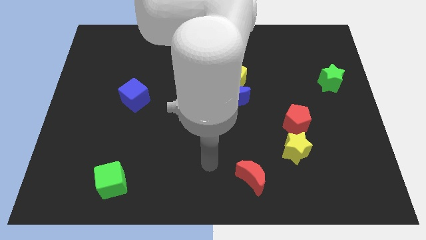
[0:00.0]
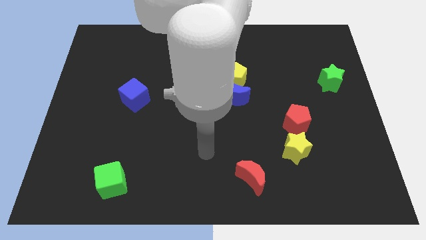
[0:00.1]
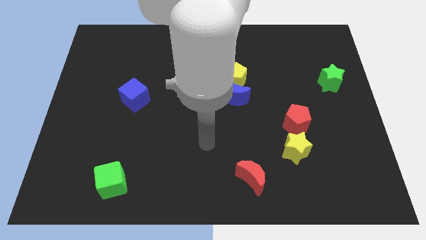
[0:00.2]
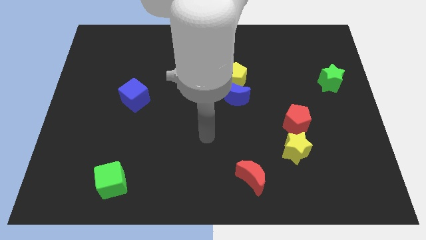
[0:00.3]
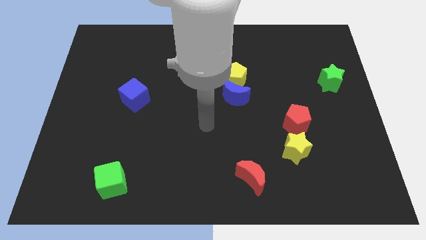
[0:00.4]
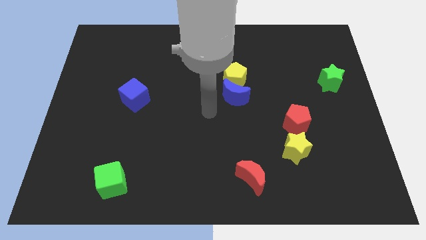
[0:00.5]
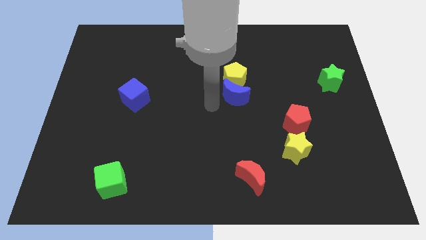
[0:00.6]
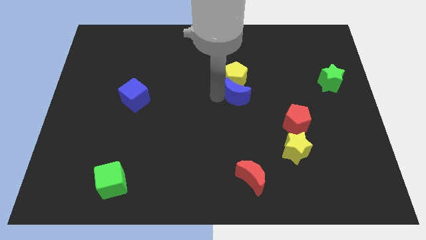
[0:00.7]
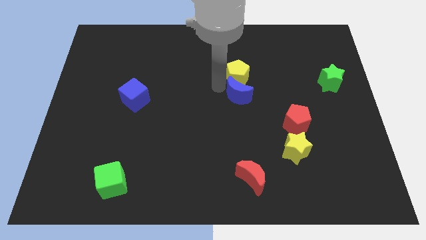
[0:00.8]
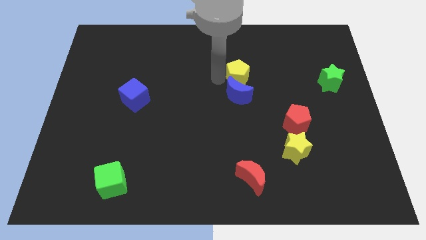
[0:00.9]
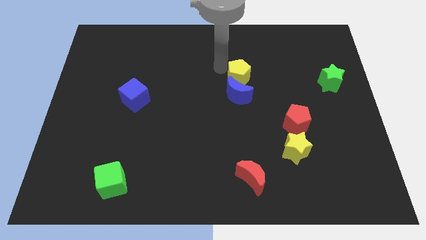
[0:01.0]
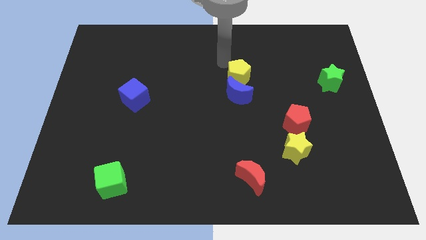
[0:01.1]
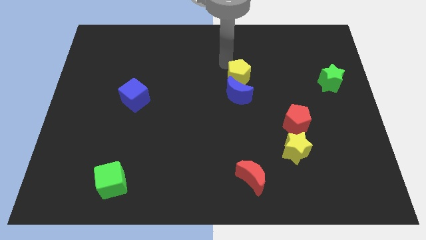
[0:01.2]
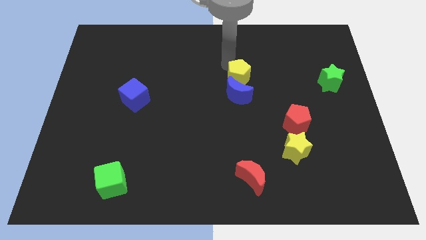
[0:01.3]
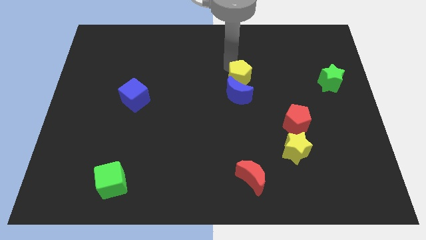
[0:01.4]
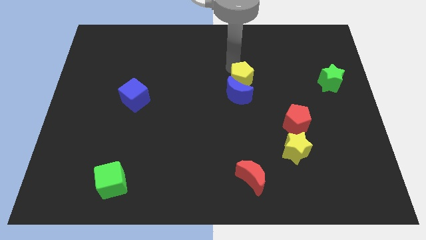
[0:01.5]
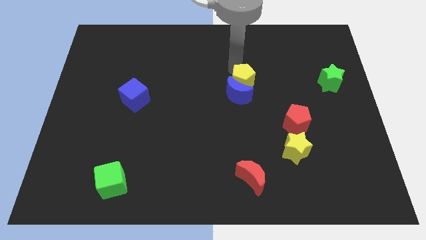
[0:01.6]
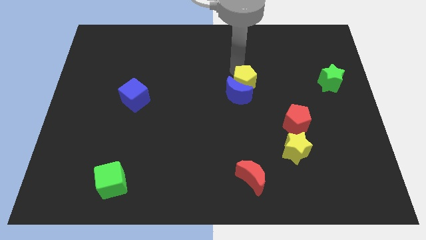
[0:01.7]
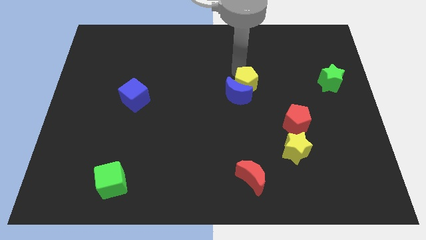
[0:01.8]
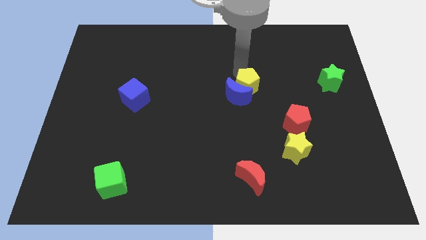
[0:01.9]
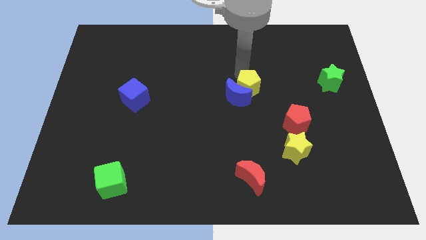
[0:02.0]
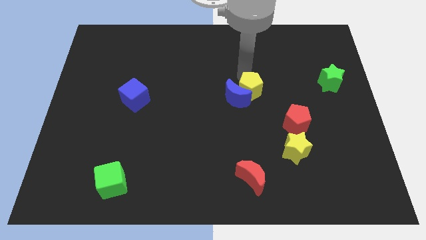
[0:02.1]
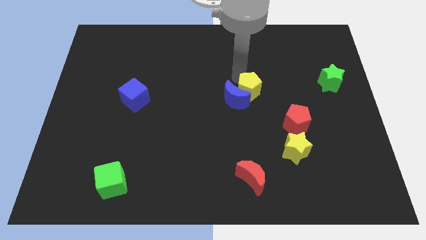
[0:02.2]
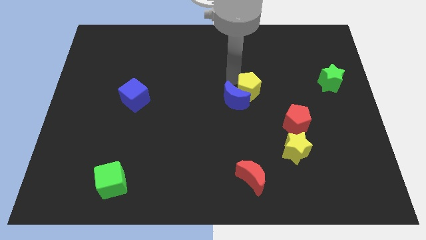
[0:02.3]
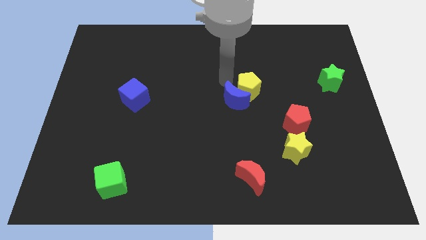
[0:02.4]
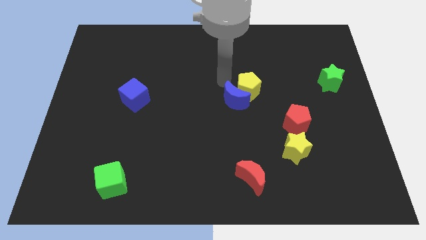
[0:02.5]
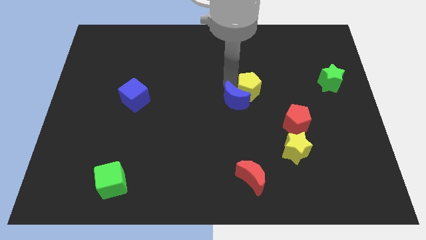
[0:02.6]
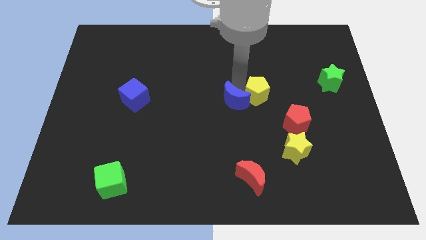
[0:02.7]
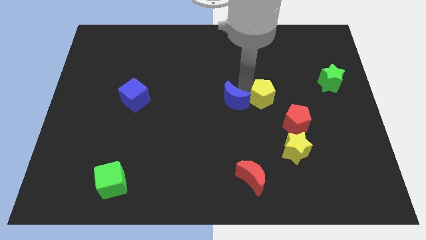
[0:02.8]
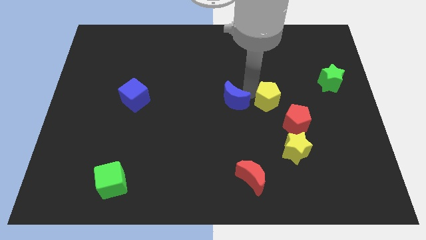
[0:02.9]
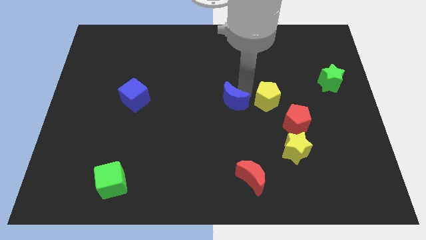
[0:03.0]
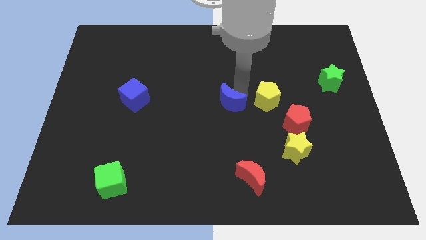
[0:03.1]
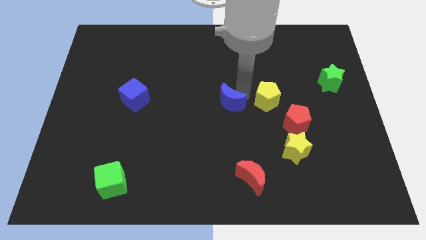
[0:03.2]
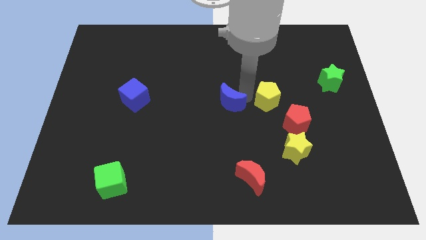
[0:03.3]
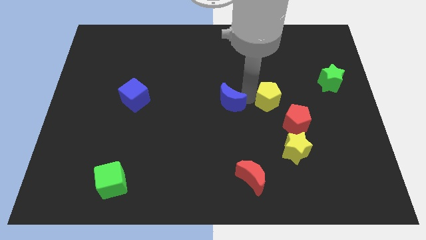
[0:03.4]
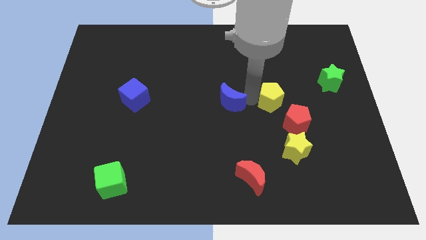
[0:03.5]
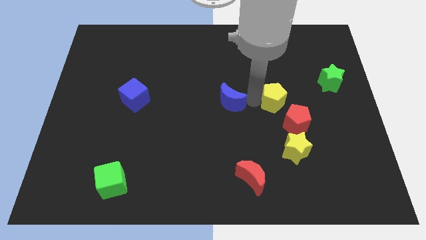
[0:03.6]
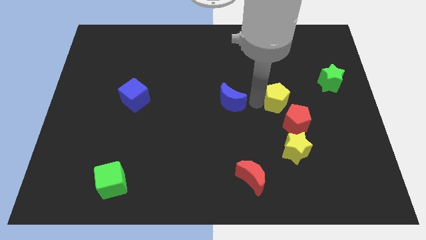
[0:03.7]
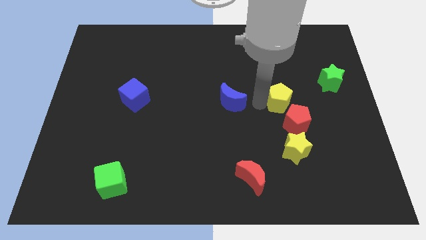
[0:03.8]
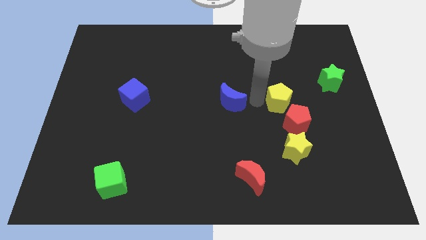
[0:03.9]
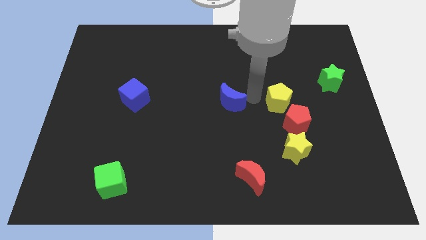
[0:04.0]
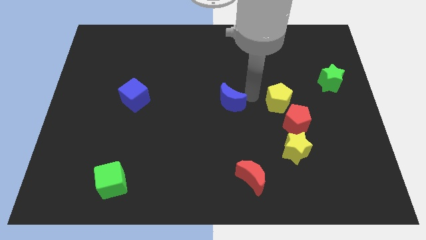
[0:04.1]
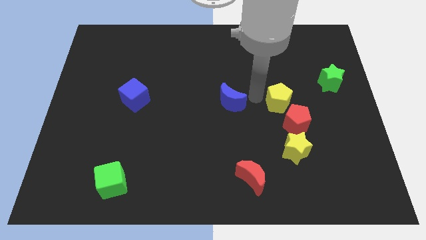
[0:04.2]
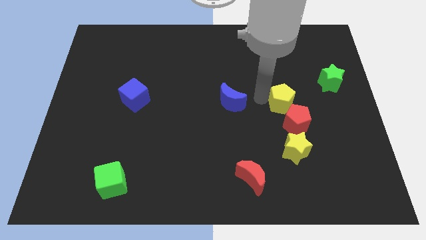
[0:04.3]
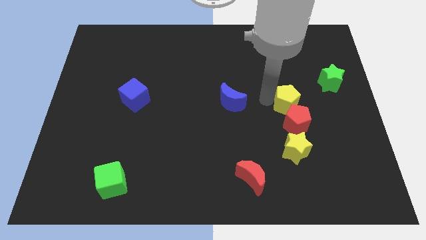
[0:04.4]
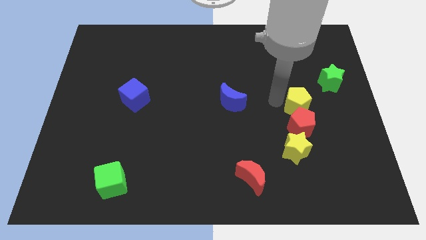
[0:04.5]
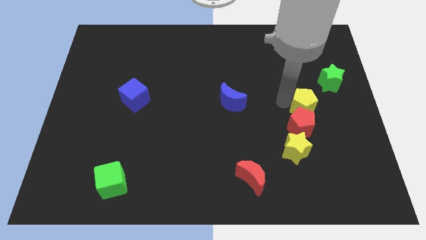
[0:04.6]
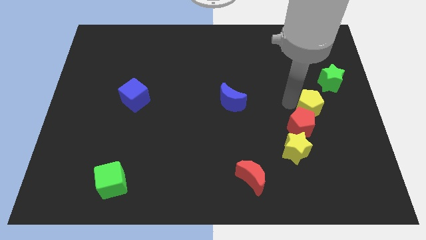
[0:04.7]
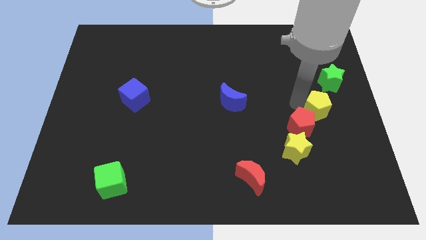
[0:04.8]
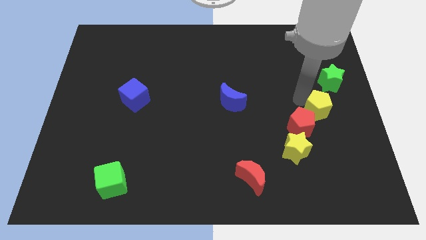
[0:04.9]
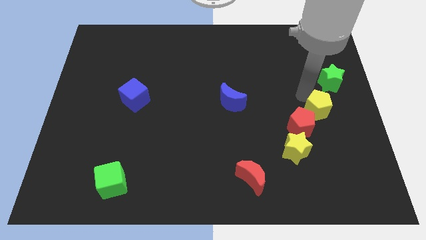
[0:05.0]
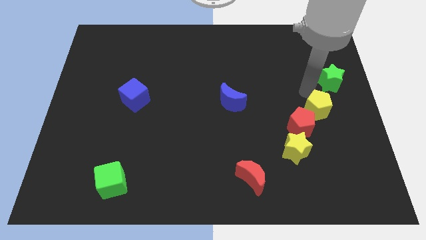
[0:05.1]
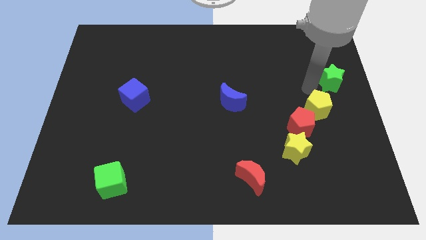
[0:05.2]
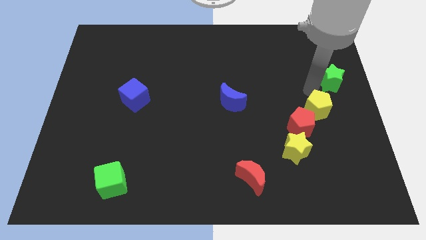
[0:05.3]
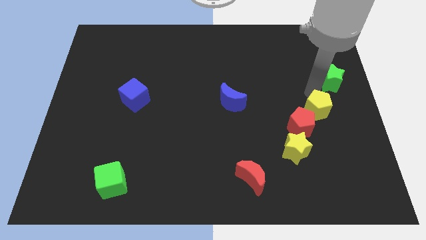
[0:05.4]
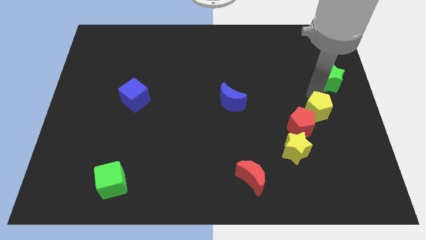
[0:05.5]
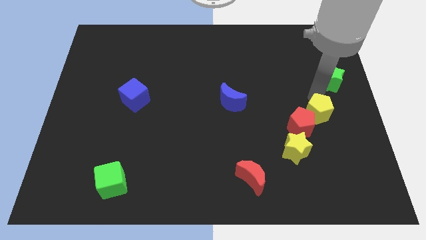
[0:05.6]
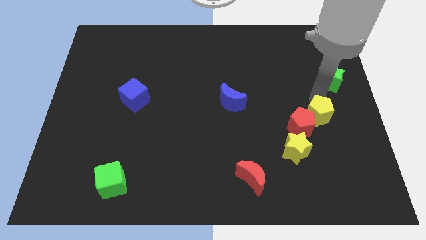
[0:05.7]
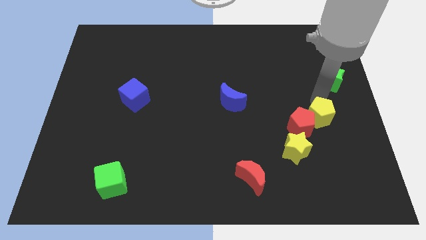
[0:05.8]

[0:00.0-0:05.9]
slide the yellow pentagon downwards and then right

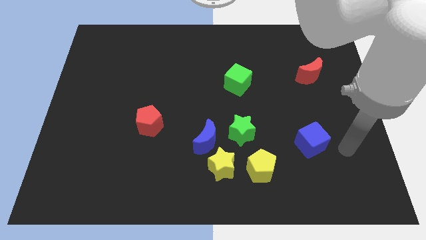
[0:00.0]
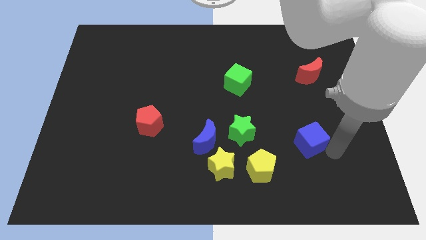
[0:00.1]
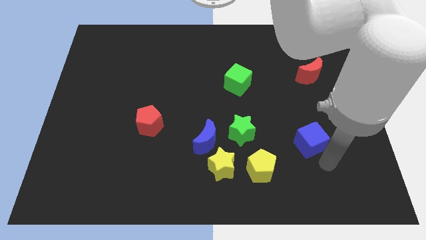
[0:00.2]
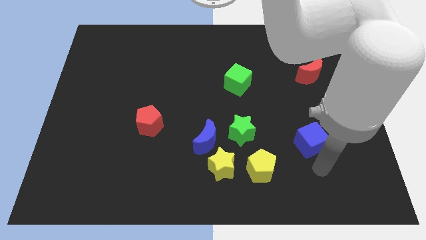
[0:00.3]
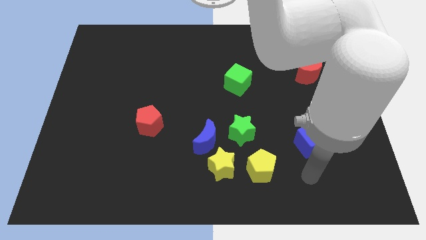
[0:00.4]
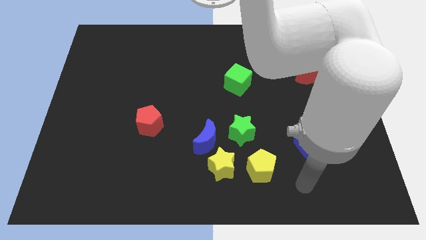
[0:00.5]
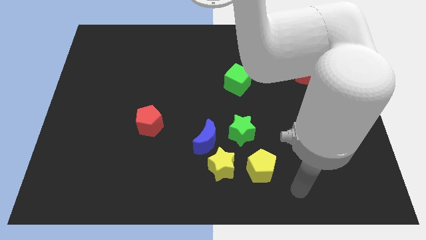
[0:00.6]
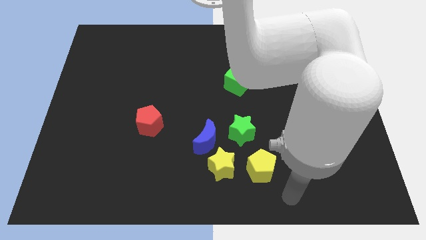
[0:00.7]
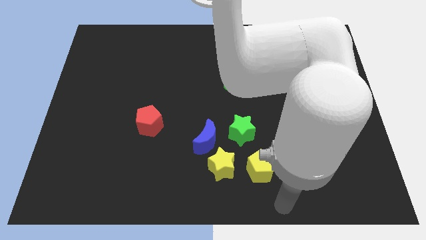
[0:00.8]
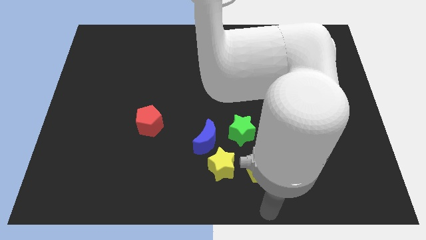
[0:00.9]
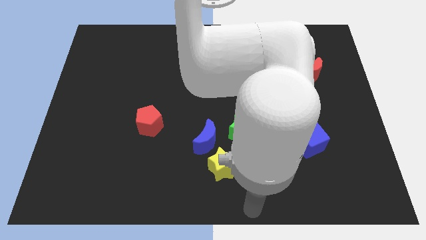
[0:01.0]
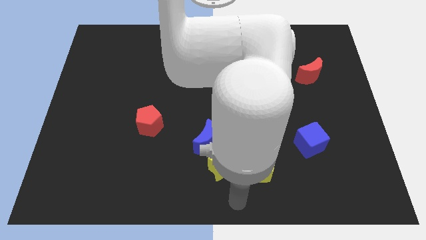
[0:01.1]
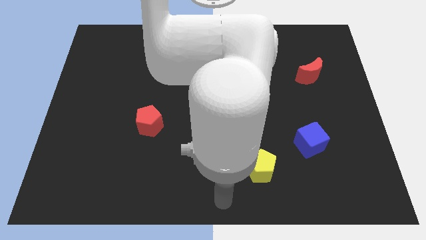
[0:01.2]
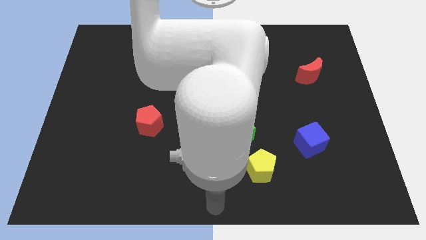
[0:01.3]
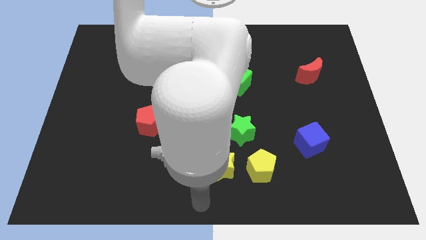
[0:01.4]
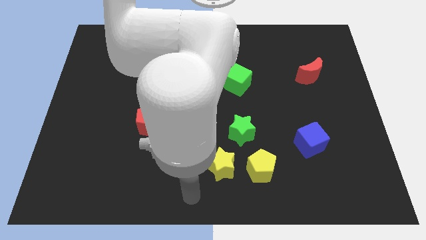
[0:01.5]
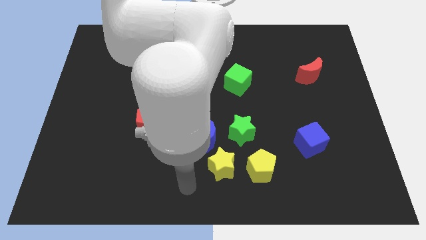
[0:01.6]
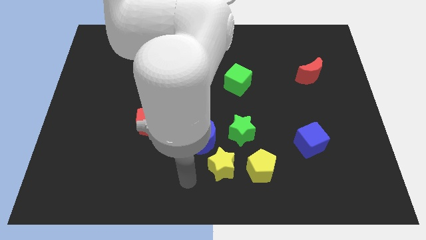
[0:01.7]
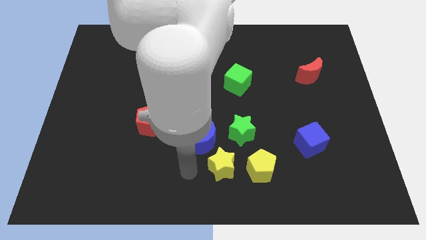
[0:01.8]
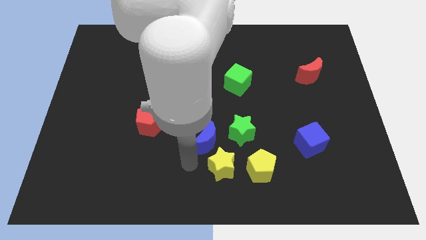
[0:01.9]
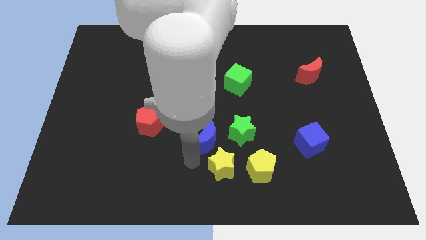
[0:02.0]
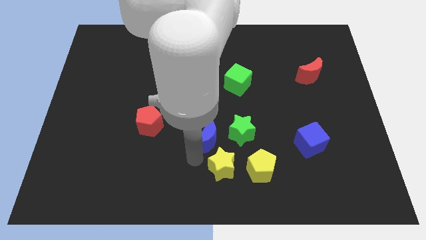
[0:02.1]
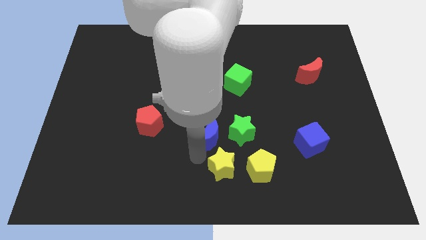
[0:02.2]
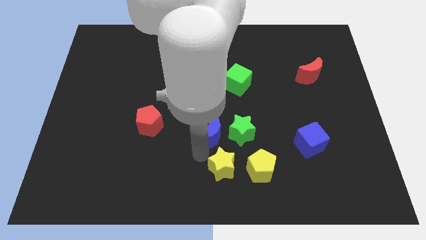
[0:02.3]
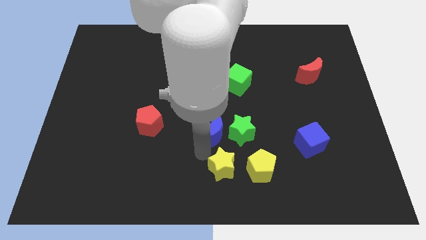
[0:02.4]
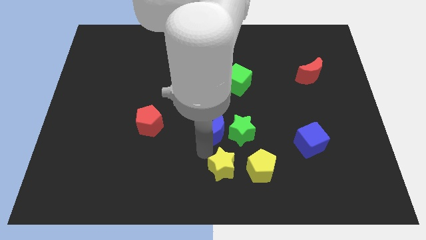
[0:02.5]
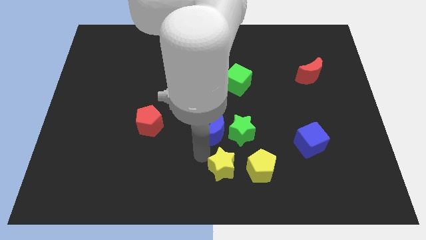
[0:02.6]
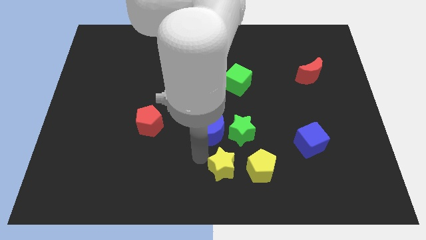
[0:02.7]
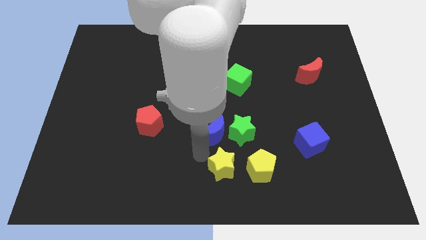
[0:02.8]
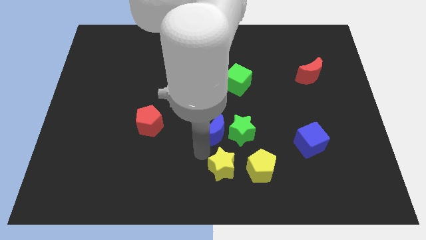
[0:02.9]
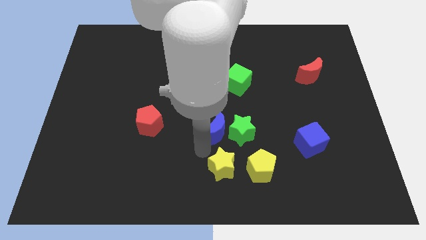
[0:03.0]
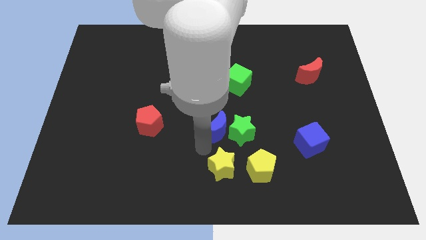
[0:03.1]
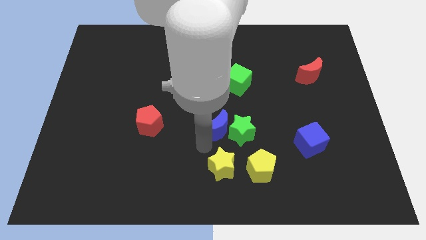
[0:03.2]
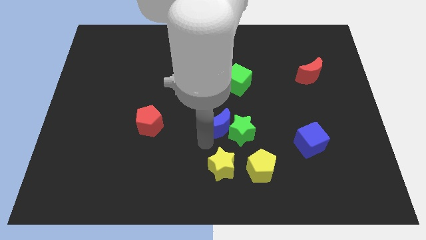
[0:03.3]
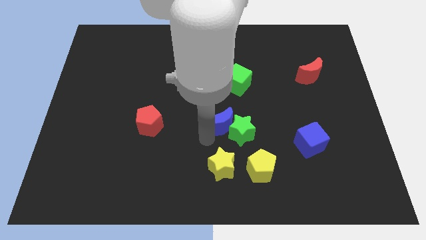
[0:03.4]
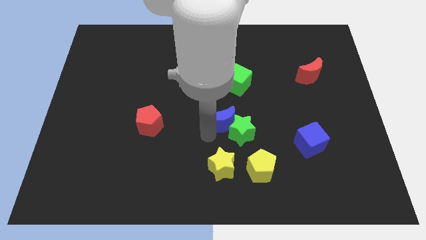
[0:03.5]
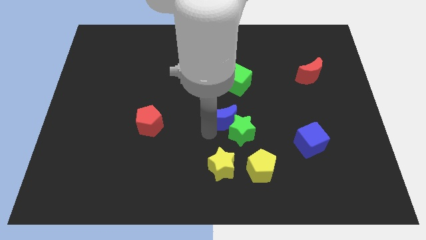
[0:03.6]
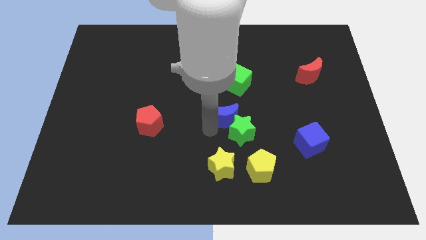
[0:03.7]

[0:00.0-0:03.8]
slide the blue moon diagonally up and right somewhat
